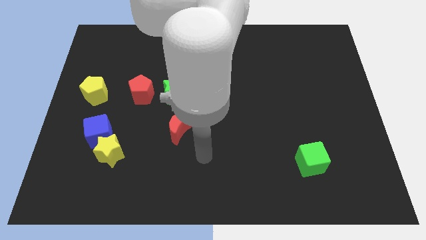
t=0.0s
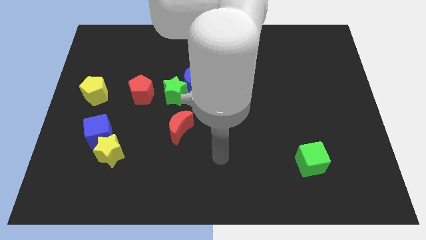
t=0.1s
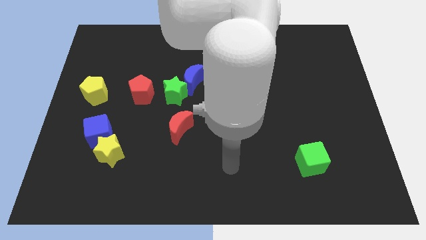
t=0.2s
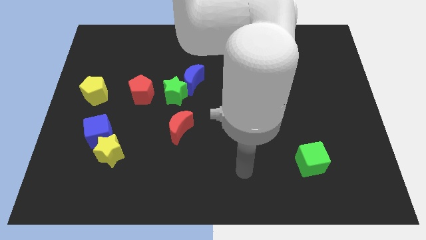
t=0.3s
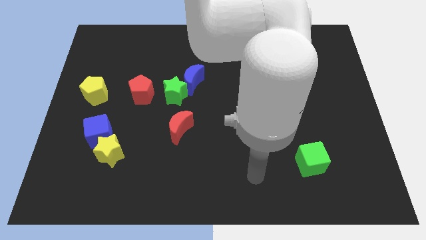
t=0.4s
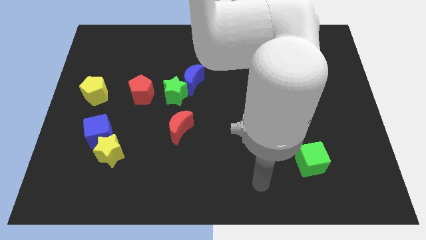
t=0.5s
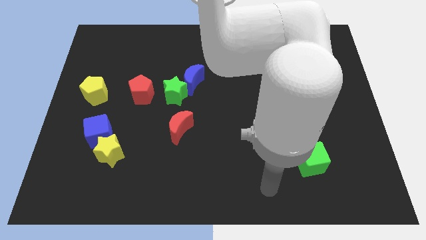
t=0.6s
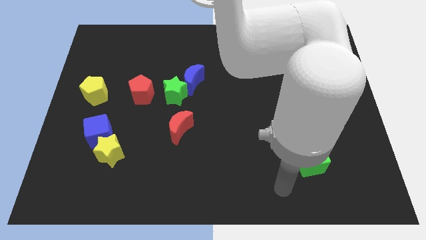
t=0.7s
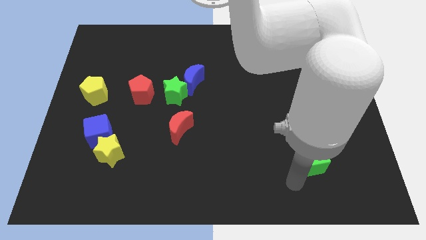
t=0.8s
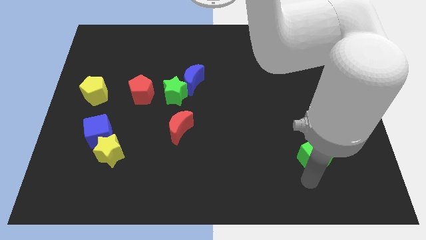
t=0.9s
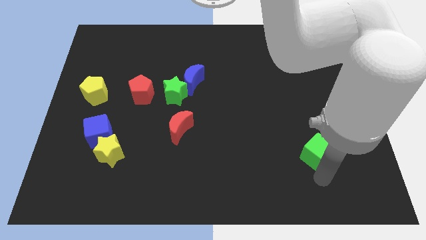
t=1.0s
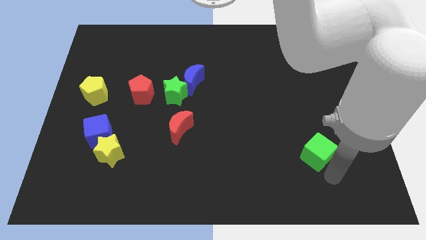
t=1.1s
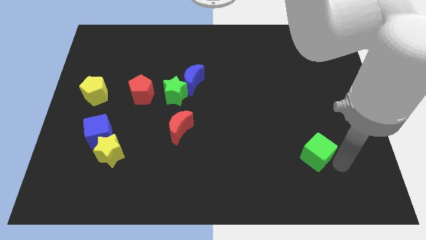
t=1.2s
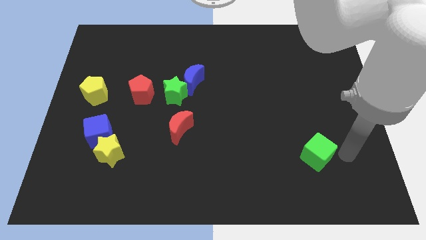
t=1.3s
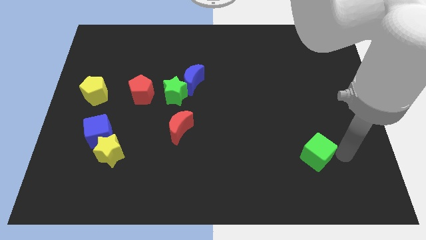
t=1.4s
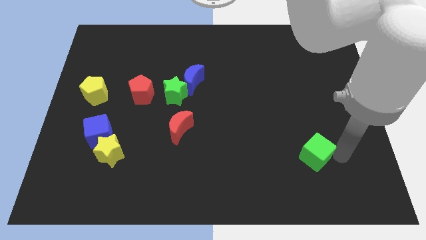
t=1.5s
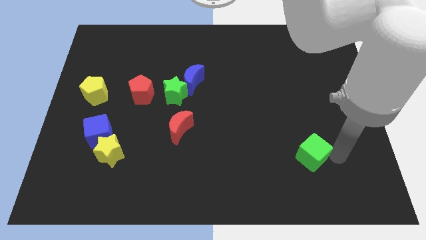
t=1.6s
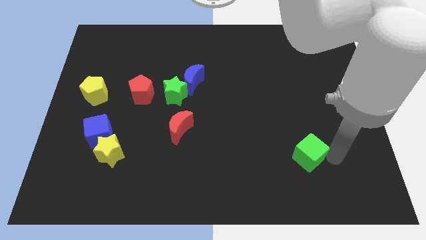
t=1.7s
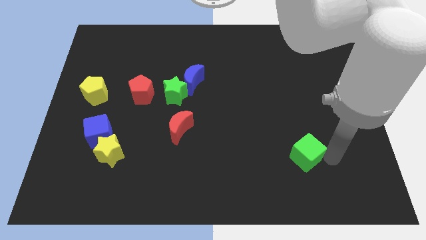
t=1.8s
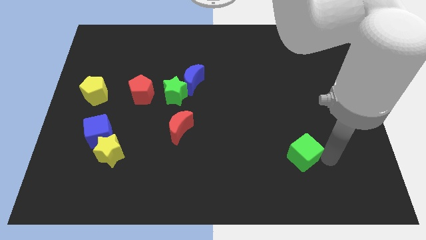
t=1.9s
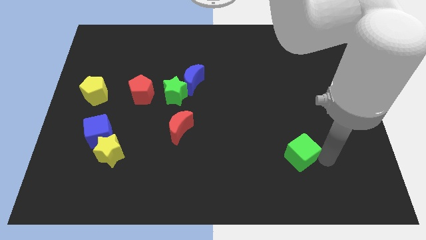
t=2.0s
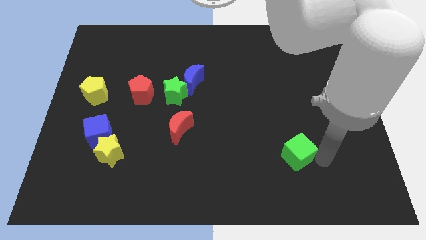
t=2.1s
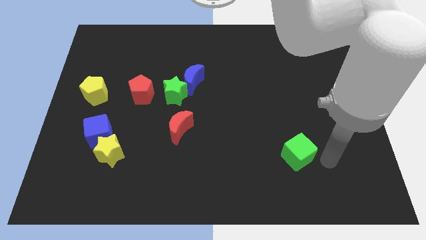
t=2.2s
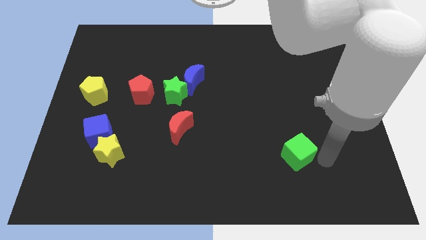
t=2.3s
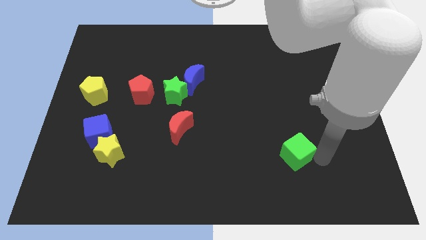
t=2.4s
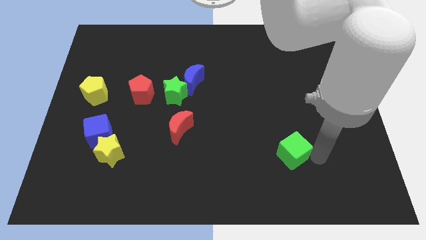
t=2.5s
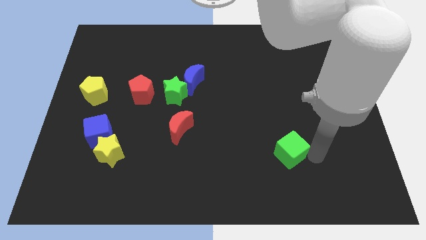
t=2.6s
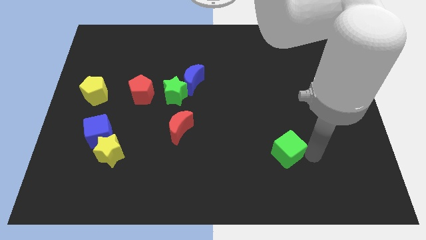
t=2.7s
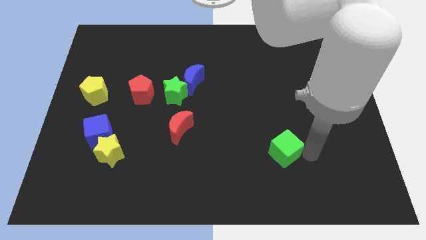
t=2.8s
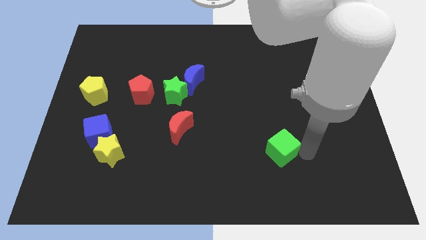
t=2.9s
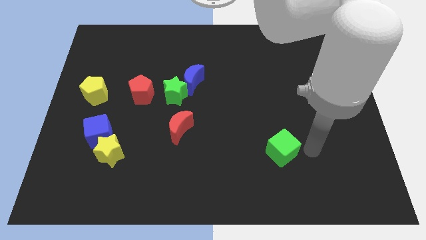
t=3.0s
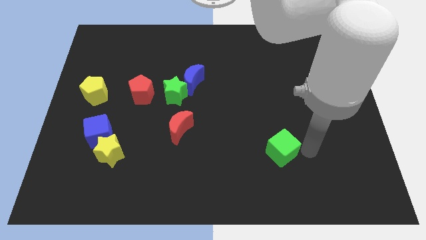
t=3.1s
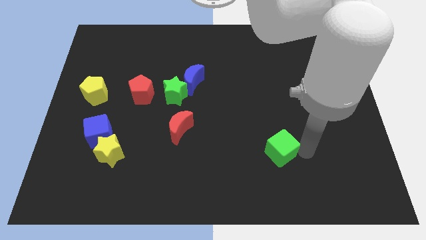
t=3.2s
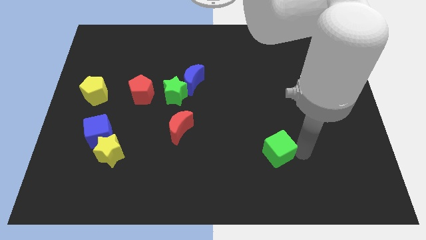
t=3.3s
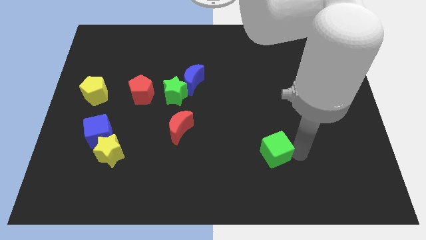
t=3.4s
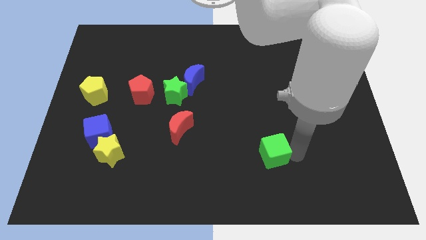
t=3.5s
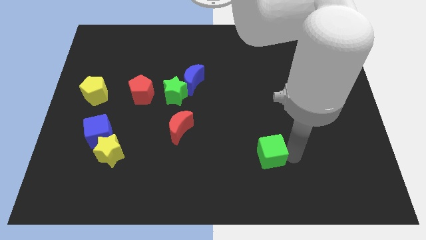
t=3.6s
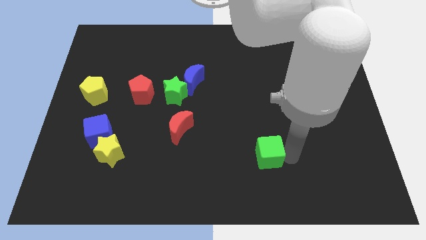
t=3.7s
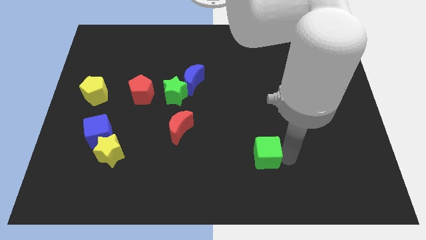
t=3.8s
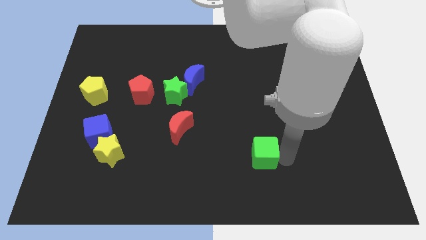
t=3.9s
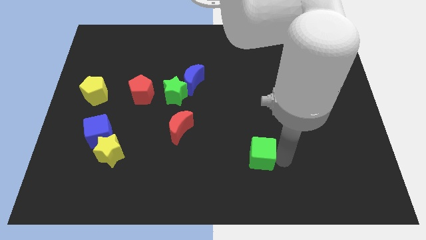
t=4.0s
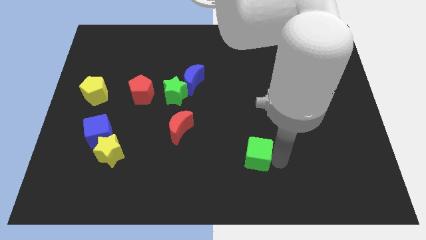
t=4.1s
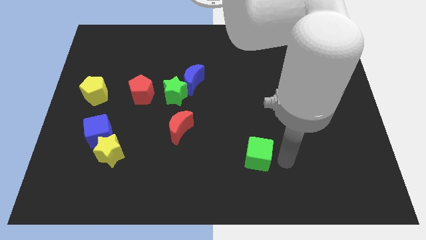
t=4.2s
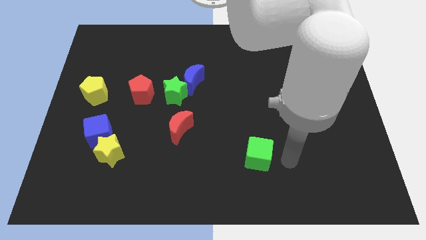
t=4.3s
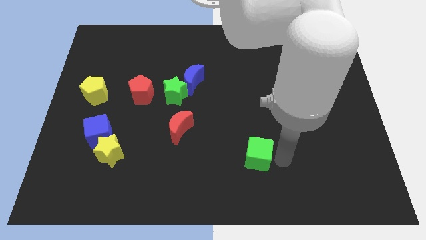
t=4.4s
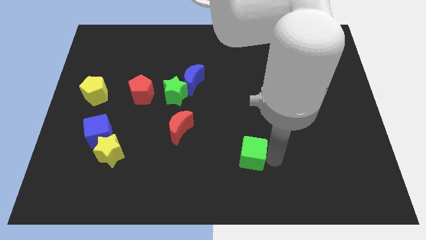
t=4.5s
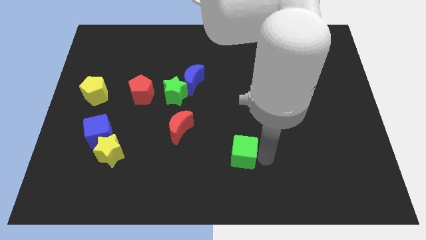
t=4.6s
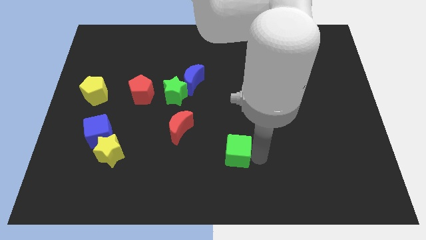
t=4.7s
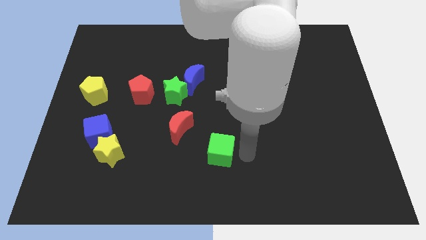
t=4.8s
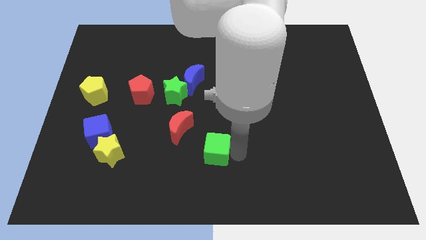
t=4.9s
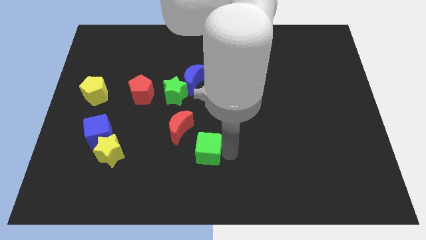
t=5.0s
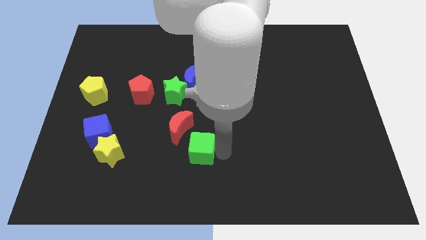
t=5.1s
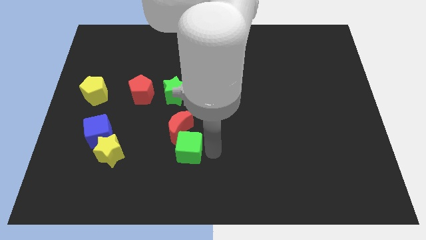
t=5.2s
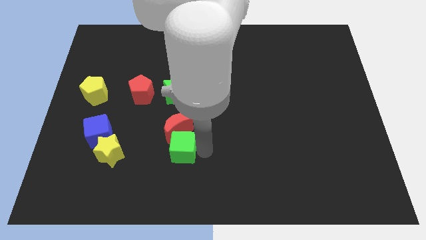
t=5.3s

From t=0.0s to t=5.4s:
push the green cube to the right side of the yellow star
